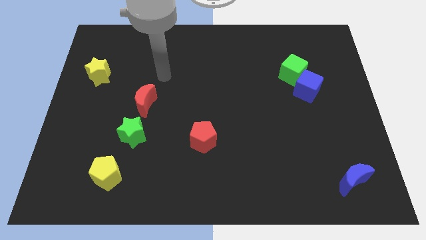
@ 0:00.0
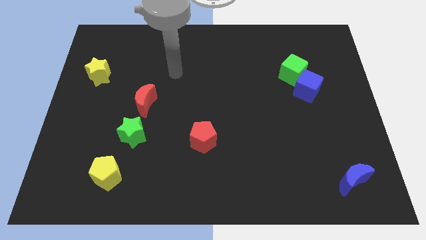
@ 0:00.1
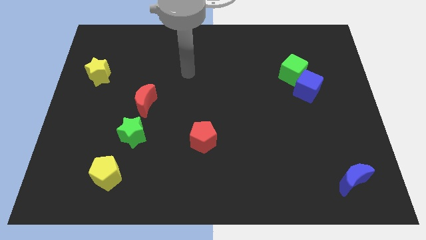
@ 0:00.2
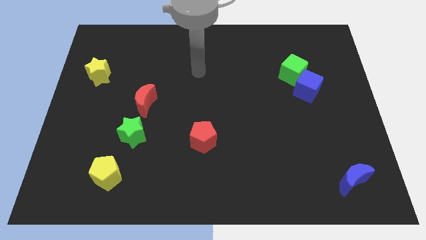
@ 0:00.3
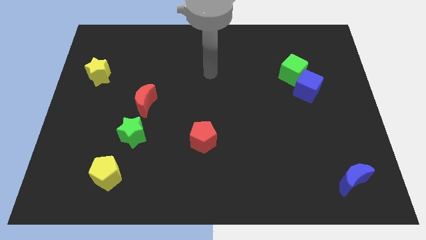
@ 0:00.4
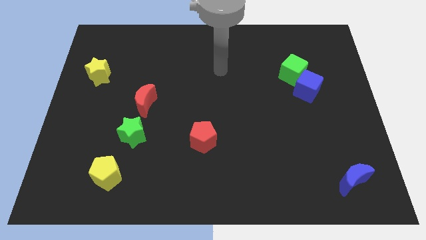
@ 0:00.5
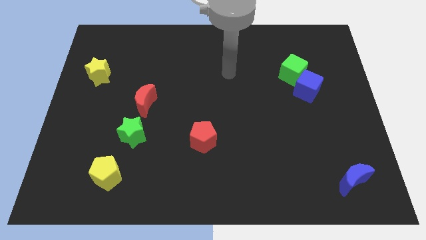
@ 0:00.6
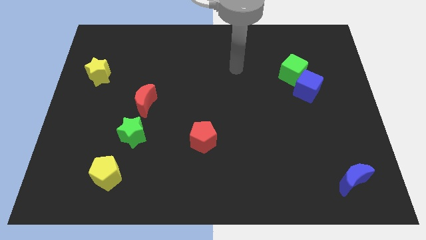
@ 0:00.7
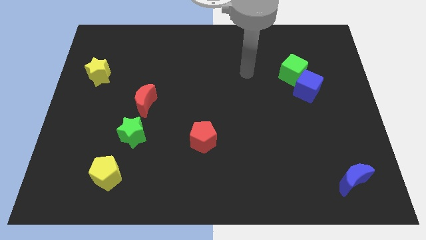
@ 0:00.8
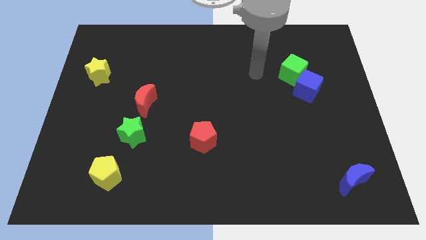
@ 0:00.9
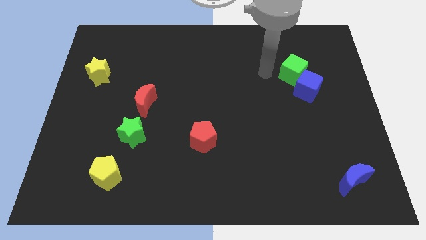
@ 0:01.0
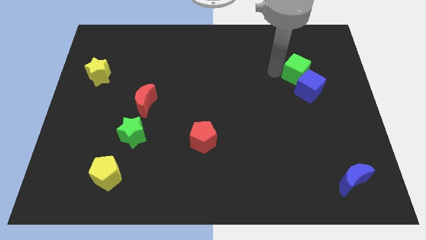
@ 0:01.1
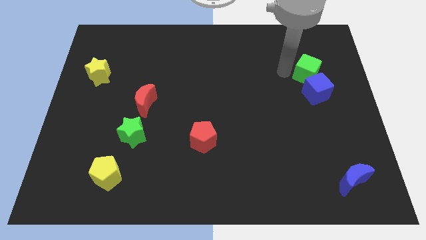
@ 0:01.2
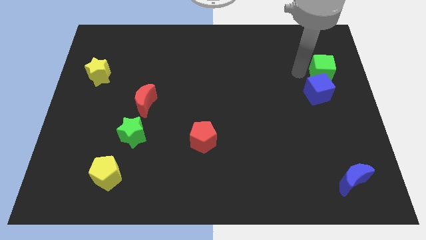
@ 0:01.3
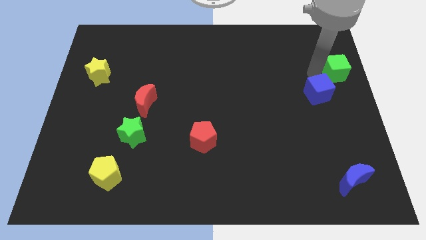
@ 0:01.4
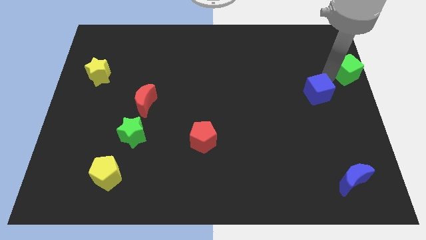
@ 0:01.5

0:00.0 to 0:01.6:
move the blue cube away from the green cube

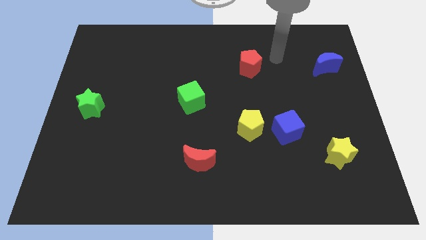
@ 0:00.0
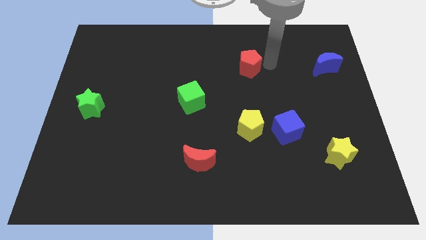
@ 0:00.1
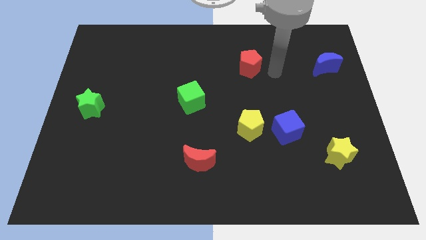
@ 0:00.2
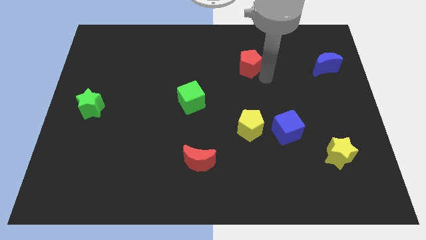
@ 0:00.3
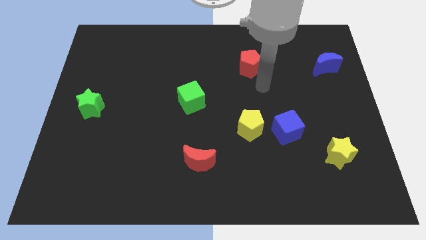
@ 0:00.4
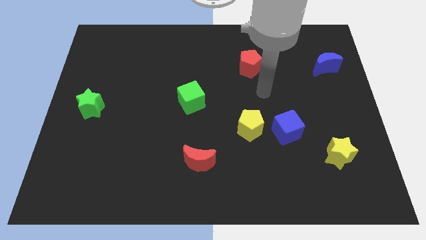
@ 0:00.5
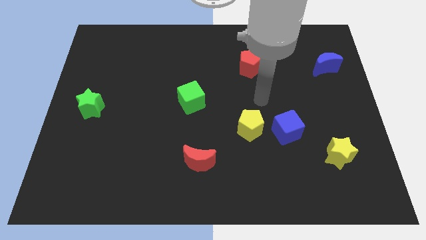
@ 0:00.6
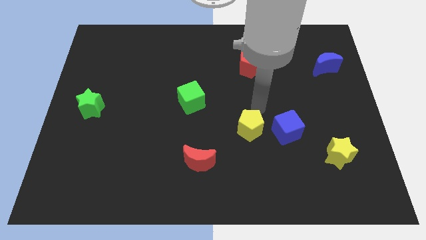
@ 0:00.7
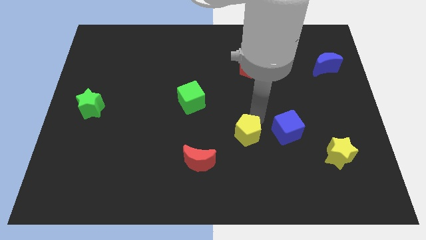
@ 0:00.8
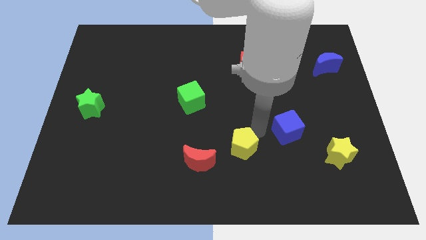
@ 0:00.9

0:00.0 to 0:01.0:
move the blue cube away from the yellow pentagon

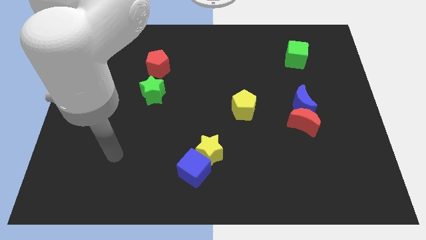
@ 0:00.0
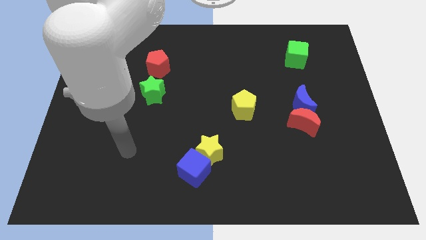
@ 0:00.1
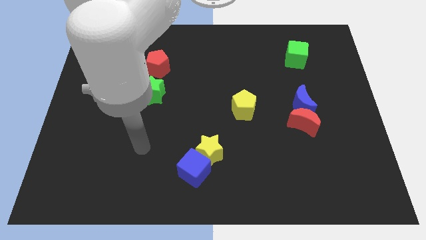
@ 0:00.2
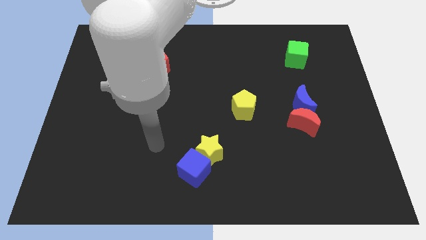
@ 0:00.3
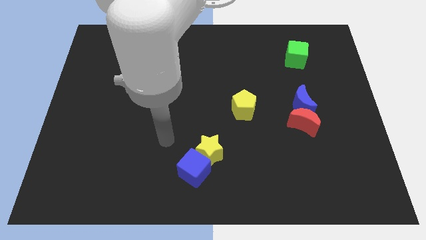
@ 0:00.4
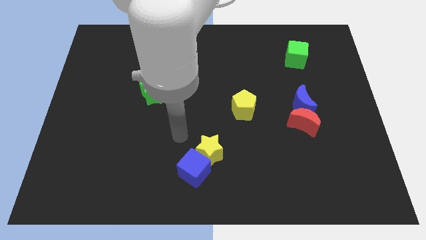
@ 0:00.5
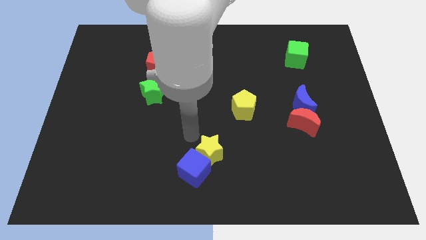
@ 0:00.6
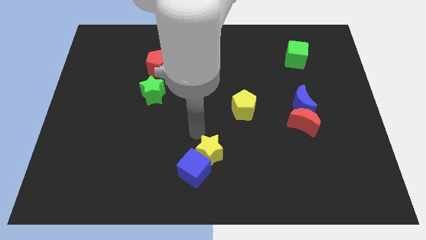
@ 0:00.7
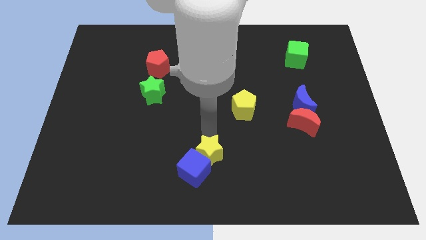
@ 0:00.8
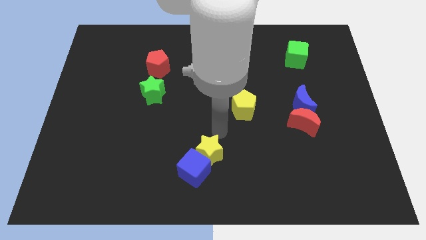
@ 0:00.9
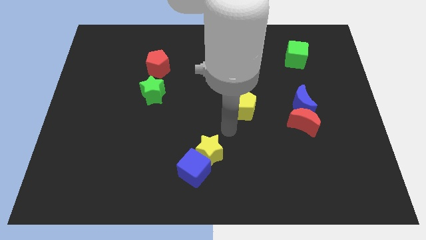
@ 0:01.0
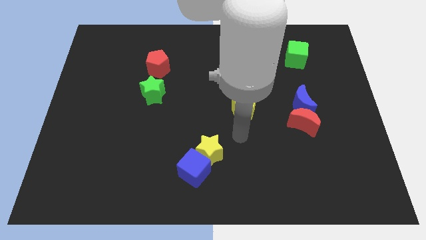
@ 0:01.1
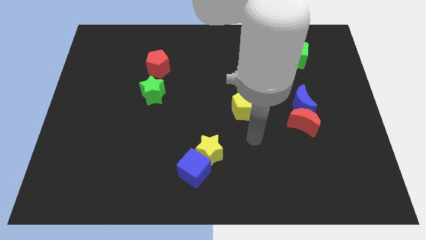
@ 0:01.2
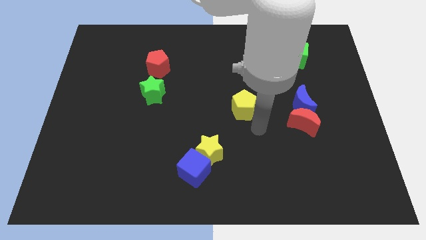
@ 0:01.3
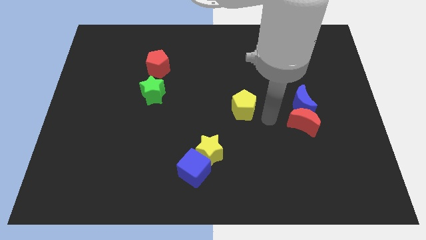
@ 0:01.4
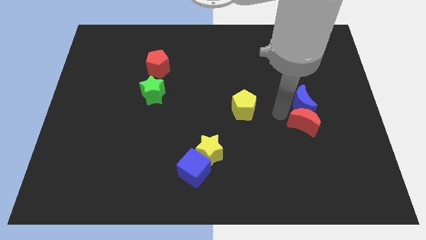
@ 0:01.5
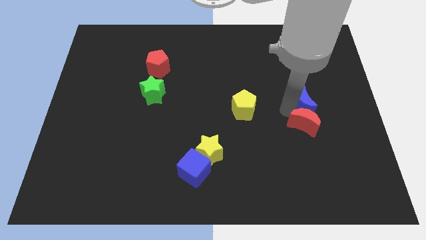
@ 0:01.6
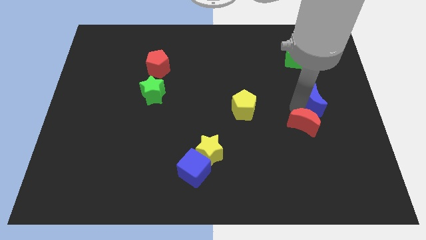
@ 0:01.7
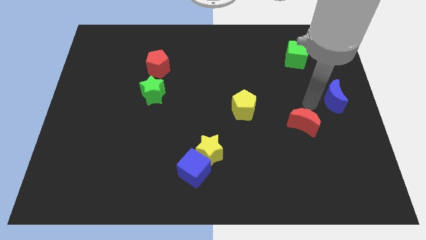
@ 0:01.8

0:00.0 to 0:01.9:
separate the red moon from the blue moon

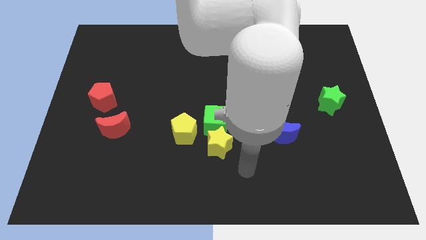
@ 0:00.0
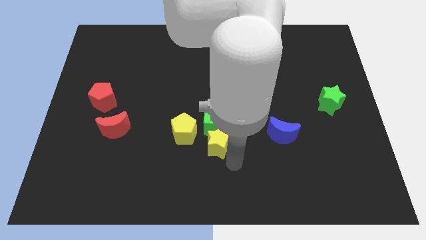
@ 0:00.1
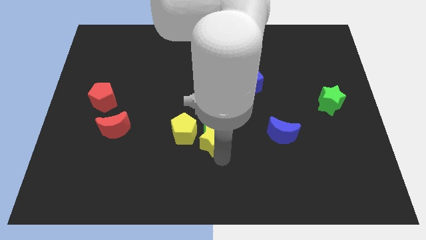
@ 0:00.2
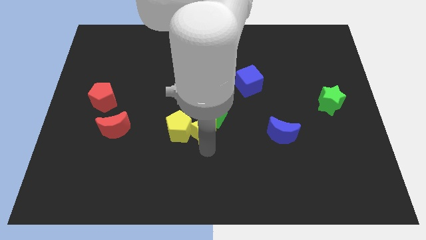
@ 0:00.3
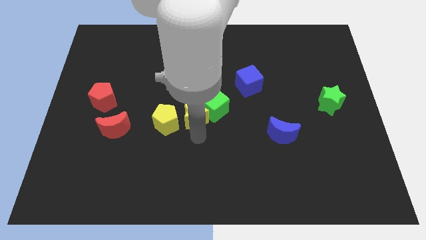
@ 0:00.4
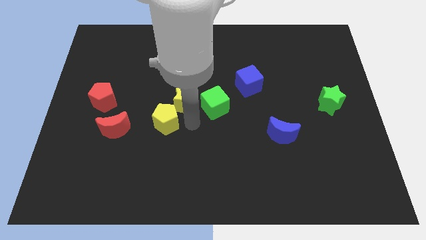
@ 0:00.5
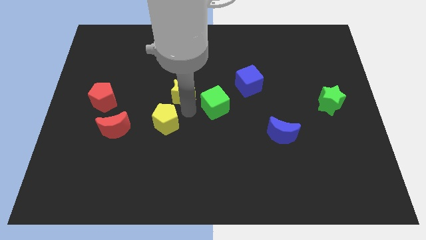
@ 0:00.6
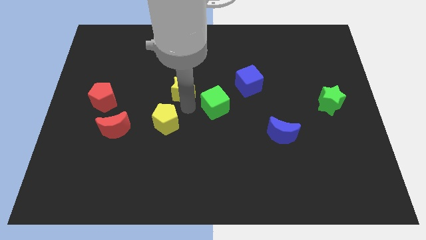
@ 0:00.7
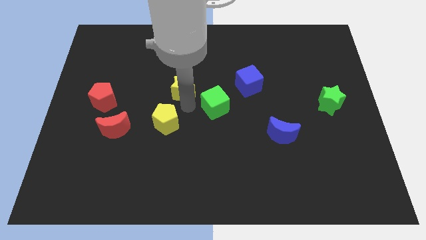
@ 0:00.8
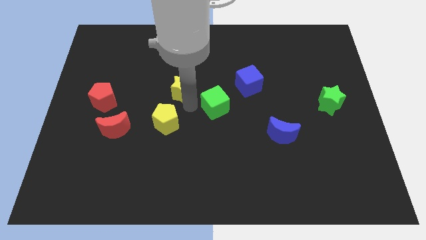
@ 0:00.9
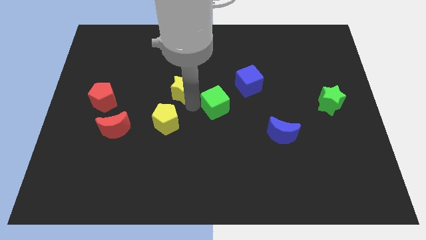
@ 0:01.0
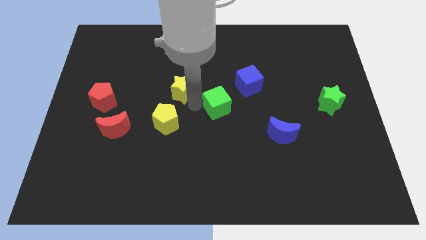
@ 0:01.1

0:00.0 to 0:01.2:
separate the green cube from the yellow star and yellow pentagon

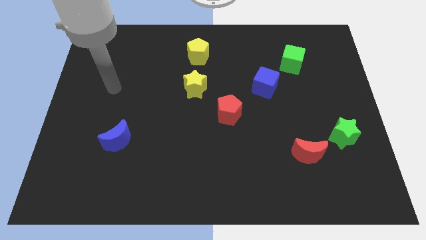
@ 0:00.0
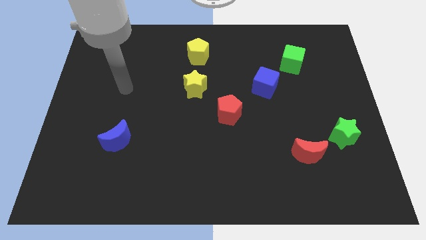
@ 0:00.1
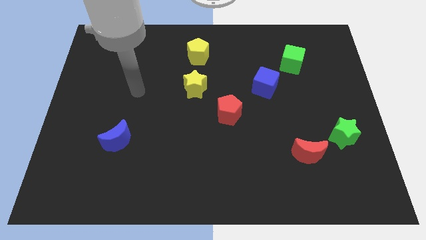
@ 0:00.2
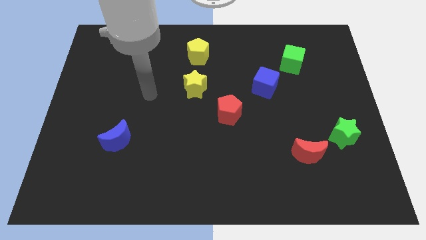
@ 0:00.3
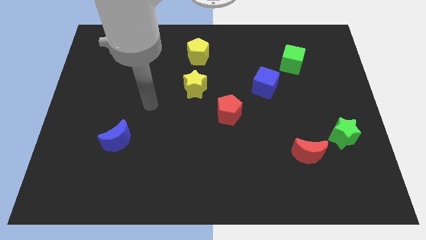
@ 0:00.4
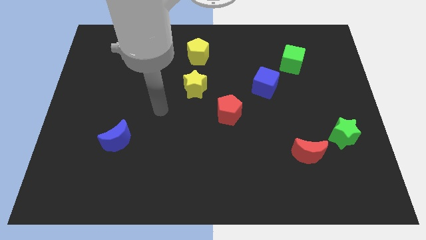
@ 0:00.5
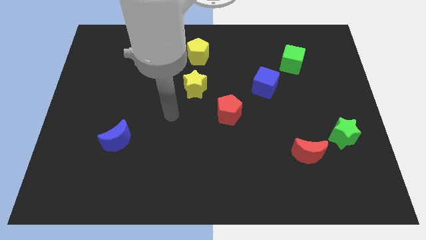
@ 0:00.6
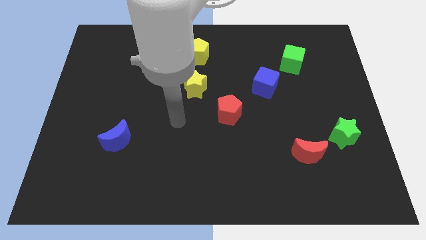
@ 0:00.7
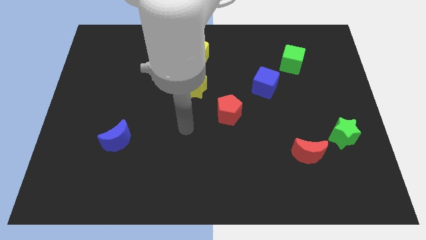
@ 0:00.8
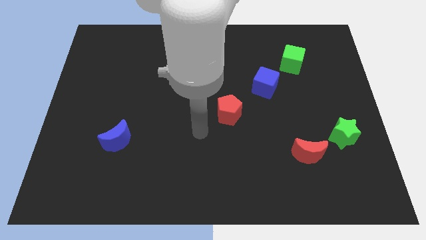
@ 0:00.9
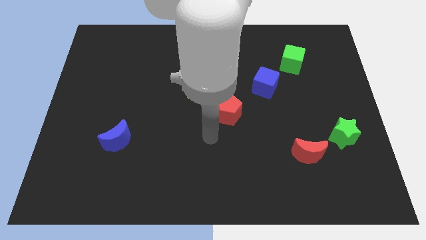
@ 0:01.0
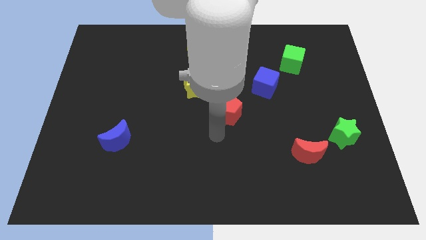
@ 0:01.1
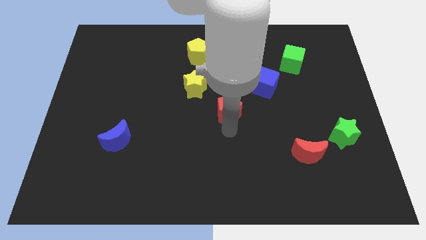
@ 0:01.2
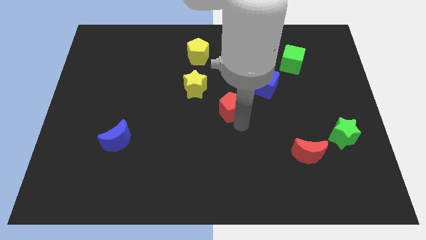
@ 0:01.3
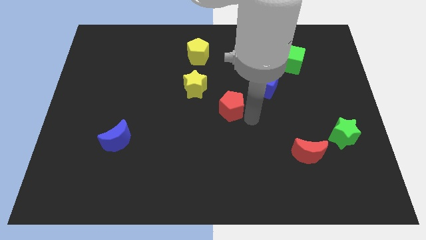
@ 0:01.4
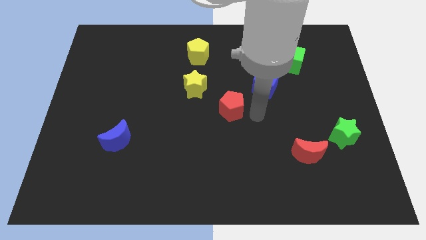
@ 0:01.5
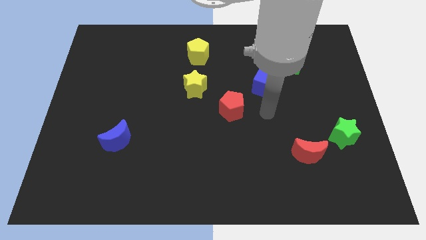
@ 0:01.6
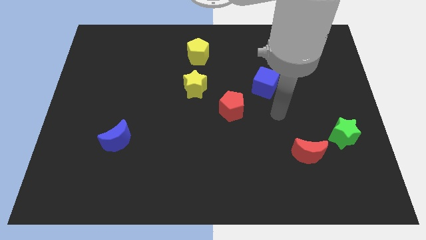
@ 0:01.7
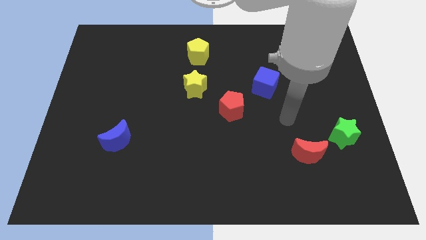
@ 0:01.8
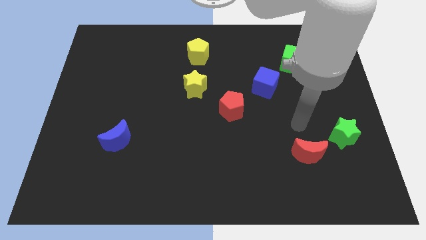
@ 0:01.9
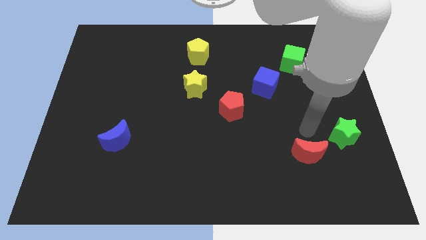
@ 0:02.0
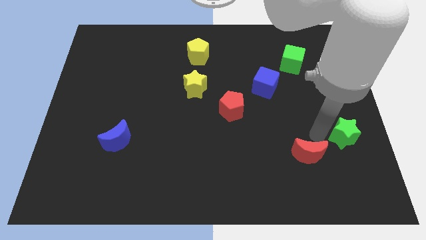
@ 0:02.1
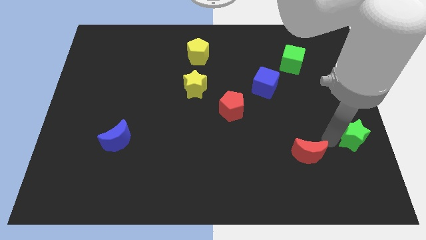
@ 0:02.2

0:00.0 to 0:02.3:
pull the red moon apart from the green star

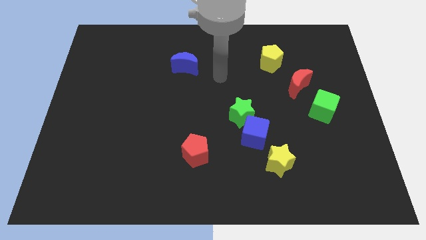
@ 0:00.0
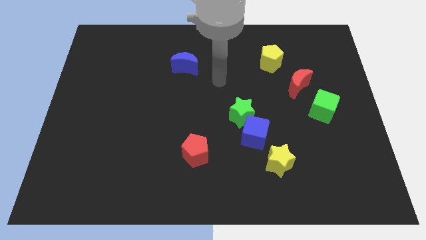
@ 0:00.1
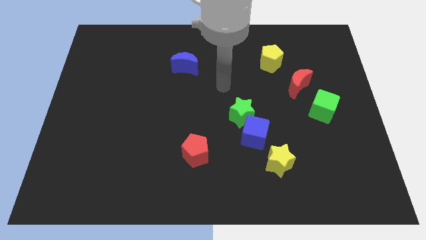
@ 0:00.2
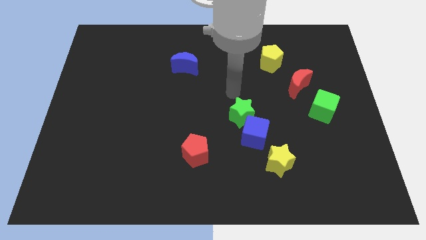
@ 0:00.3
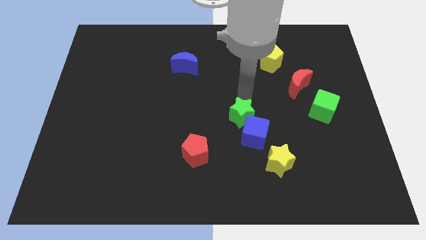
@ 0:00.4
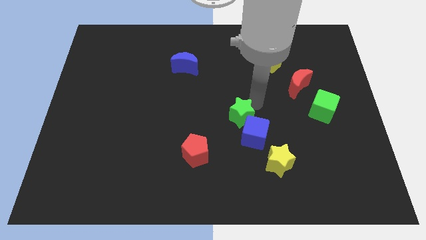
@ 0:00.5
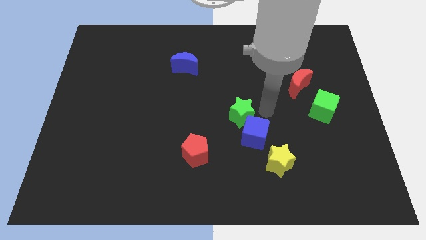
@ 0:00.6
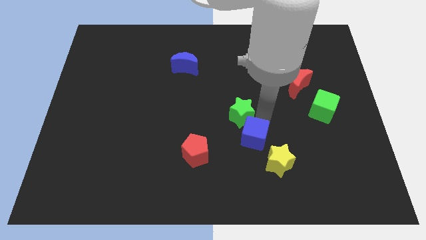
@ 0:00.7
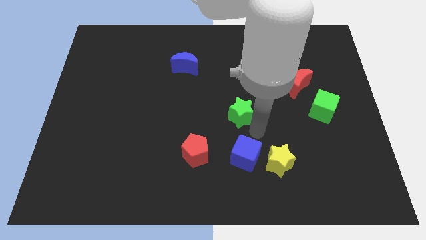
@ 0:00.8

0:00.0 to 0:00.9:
separate the green star from the blue cube

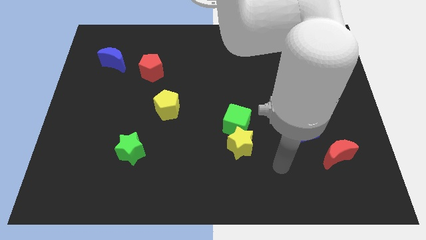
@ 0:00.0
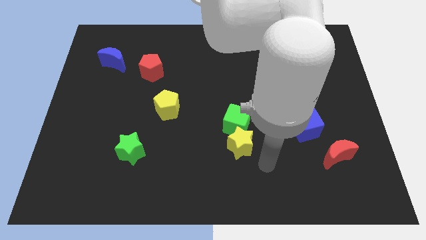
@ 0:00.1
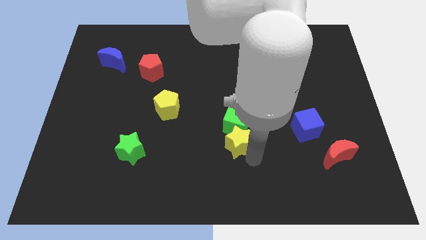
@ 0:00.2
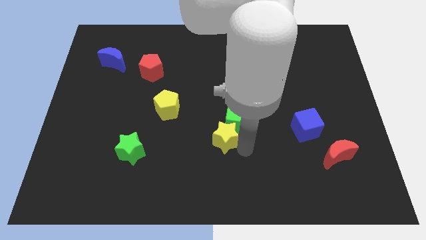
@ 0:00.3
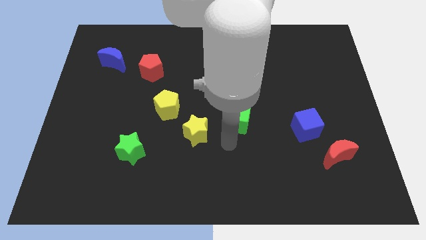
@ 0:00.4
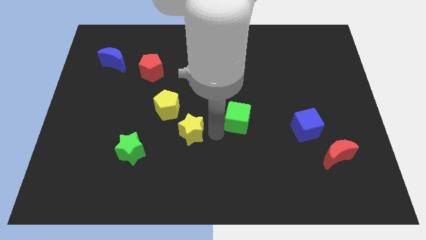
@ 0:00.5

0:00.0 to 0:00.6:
pull the green cube apart from the yellow star
